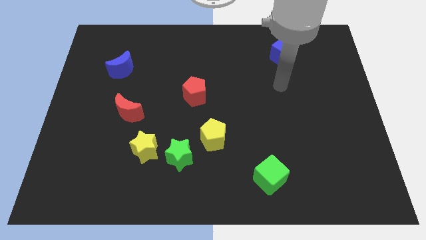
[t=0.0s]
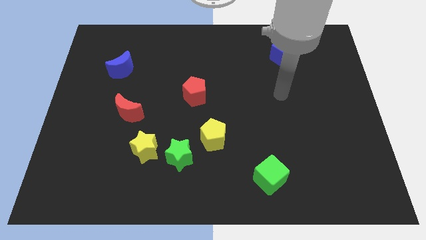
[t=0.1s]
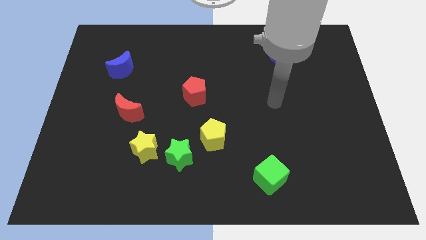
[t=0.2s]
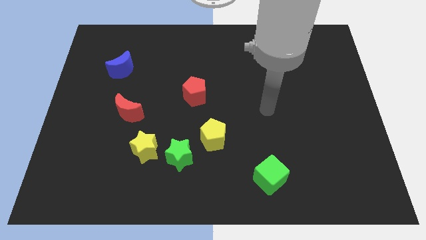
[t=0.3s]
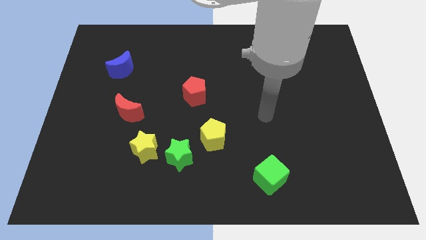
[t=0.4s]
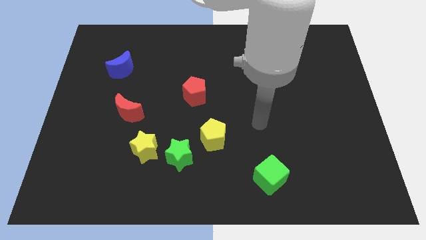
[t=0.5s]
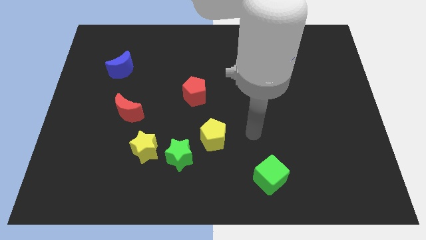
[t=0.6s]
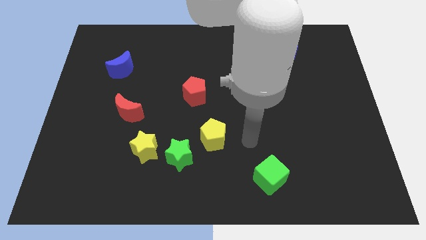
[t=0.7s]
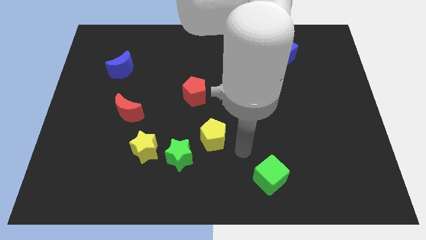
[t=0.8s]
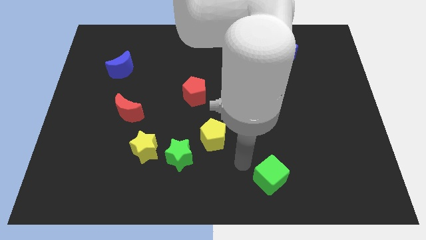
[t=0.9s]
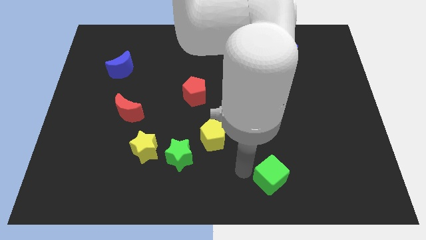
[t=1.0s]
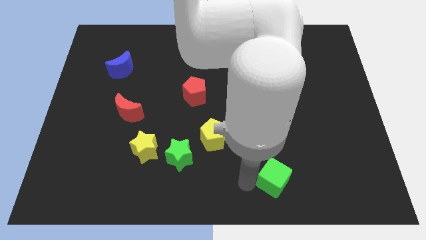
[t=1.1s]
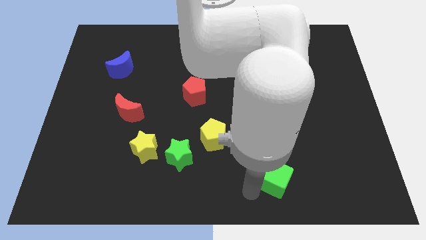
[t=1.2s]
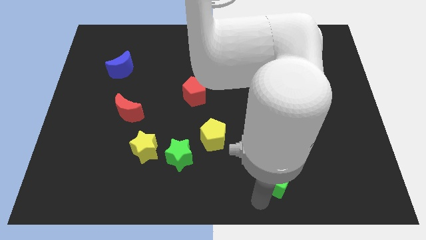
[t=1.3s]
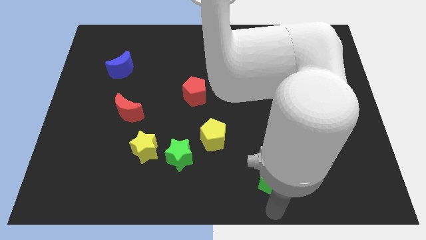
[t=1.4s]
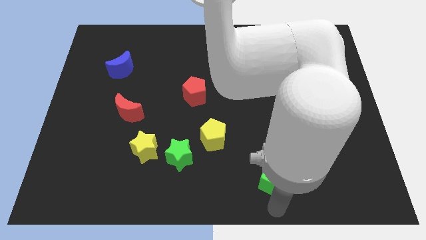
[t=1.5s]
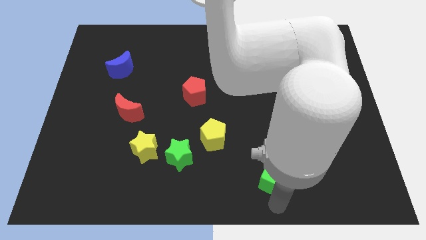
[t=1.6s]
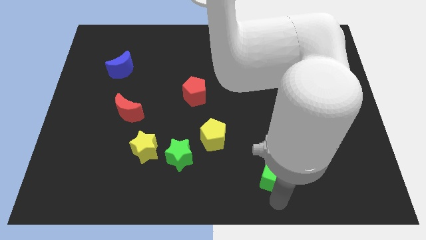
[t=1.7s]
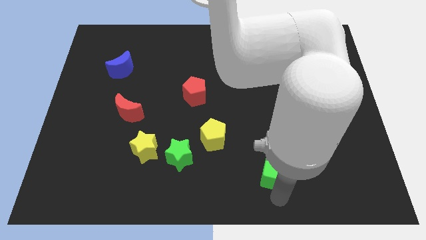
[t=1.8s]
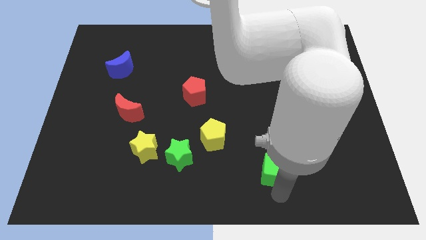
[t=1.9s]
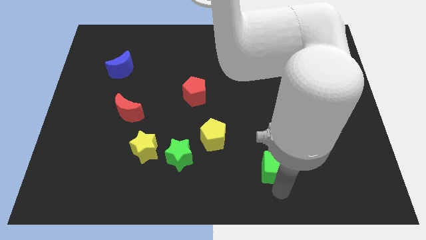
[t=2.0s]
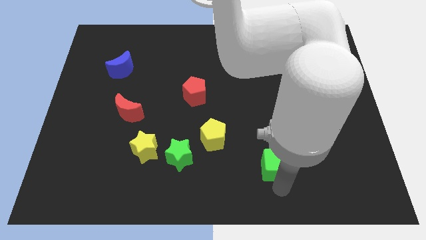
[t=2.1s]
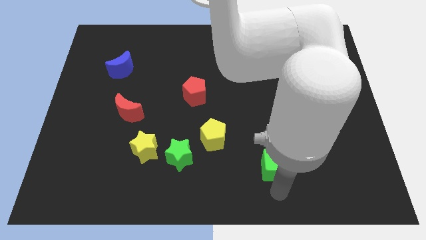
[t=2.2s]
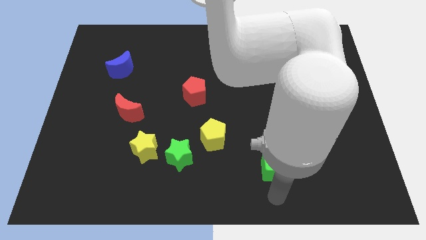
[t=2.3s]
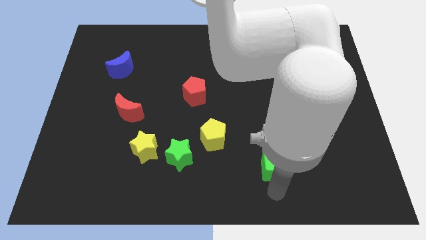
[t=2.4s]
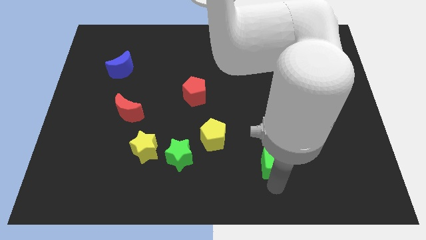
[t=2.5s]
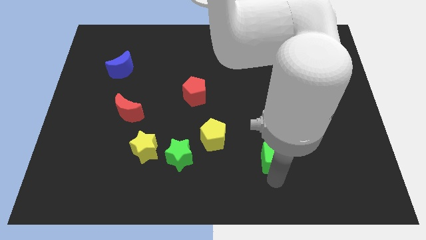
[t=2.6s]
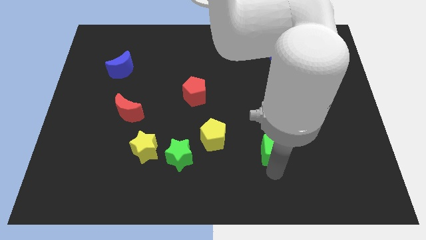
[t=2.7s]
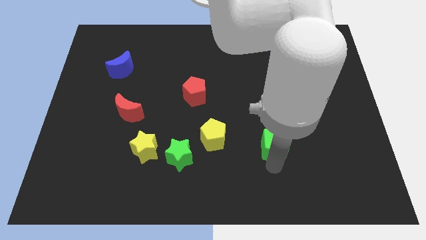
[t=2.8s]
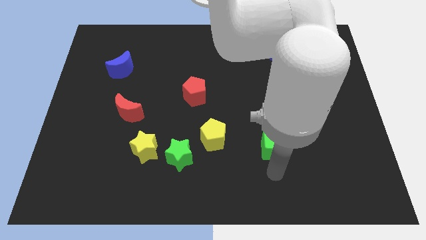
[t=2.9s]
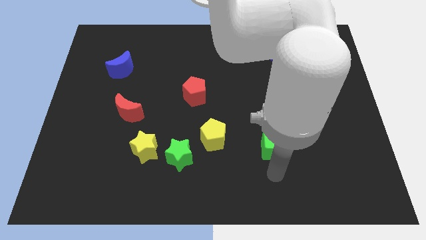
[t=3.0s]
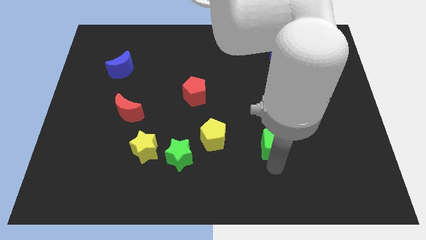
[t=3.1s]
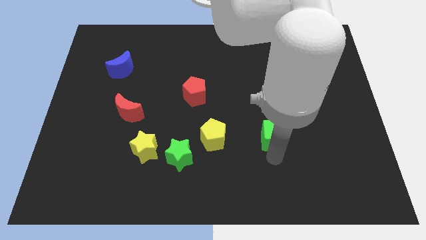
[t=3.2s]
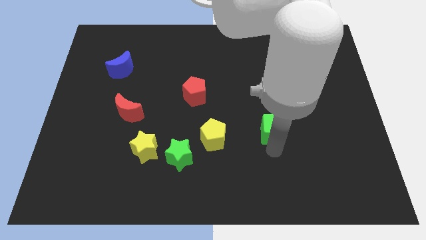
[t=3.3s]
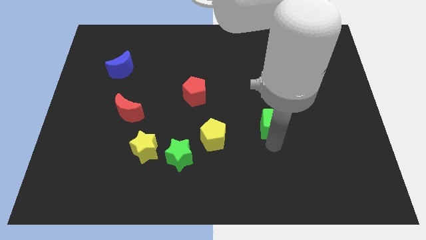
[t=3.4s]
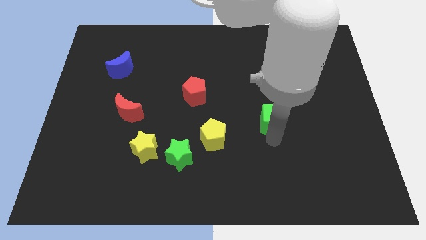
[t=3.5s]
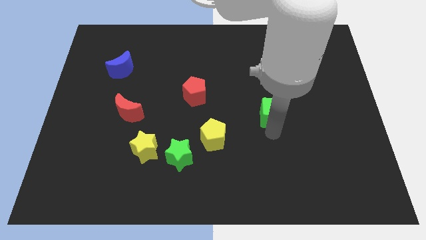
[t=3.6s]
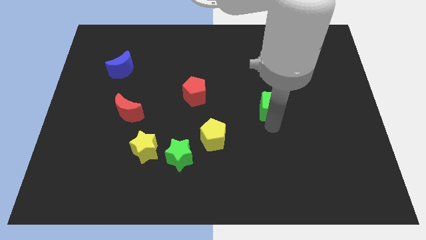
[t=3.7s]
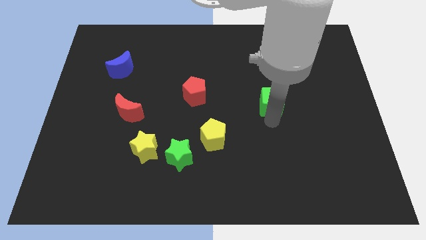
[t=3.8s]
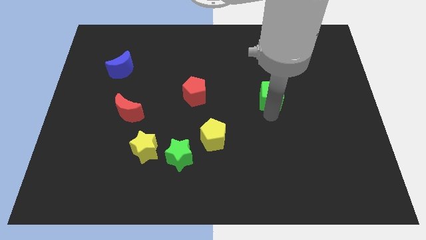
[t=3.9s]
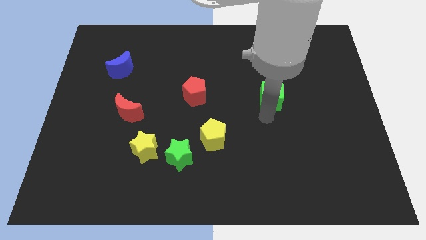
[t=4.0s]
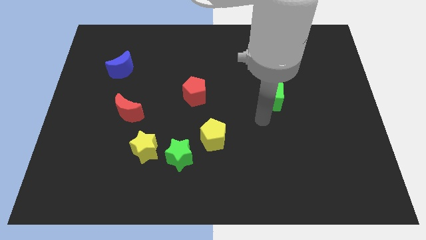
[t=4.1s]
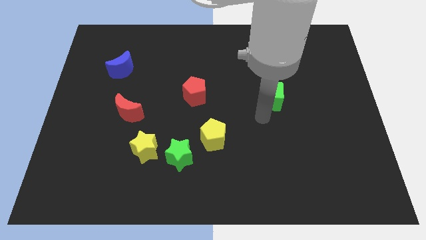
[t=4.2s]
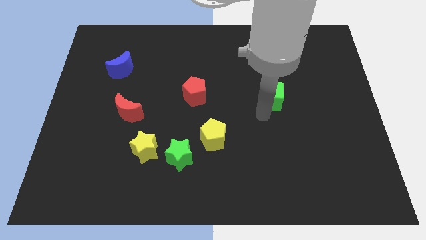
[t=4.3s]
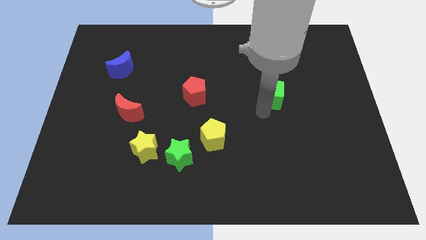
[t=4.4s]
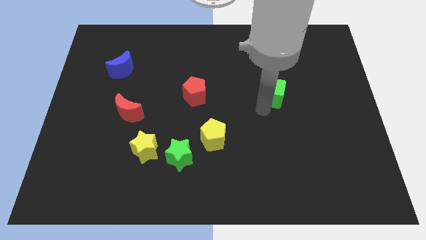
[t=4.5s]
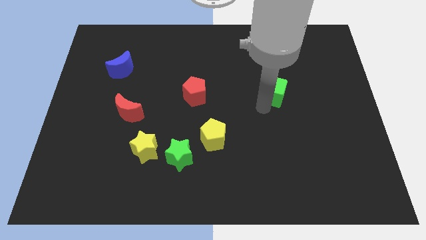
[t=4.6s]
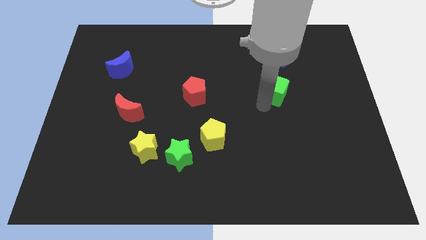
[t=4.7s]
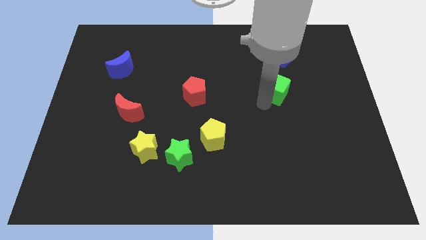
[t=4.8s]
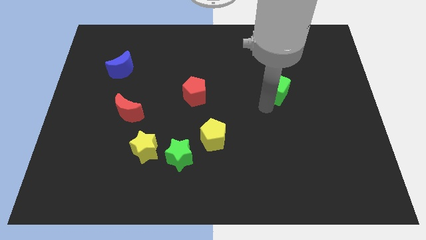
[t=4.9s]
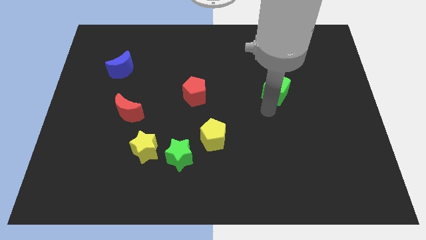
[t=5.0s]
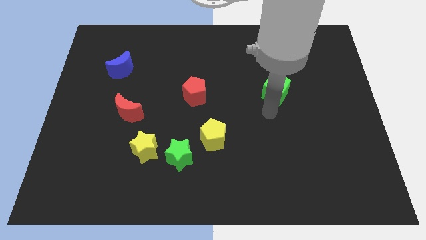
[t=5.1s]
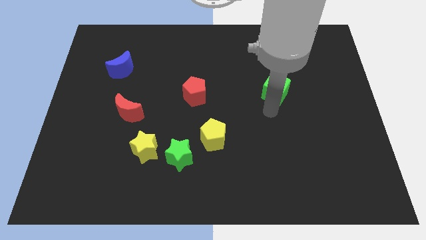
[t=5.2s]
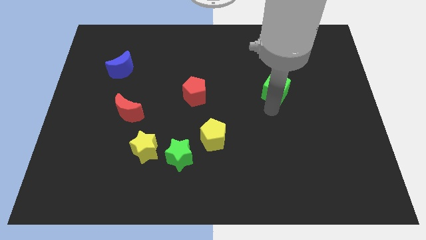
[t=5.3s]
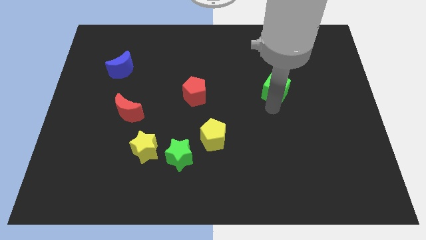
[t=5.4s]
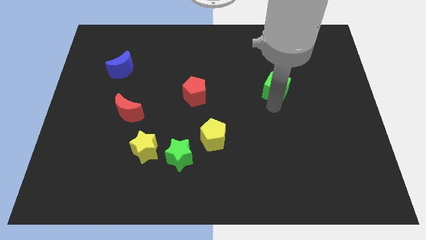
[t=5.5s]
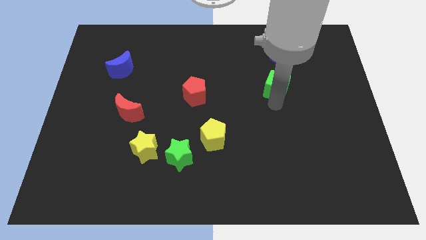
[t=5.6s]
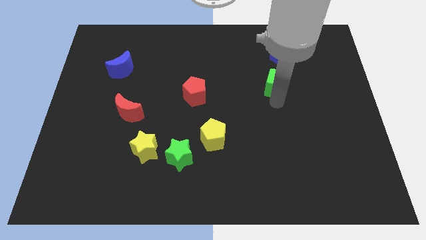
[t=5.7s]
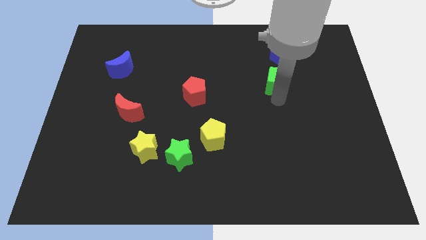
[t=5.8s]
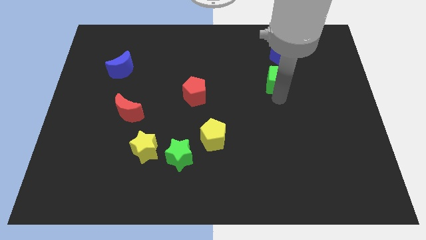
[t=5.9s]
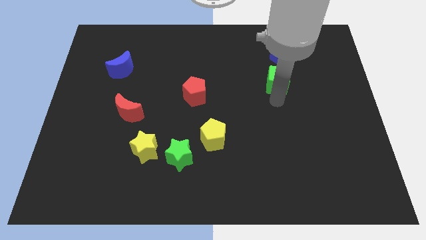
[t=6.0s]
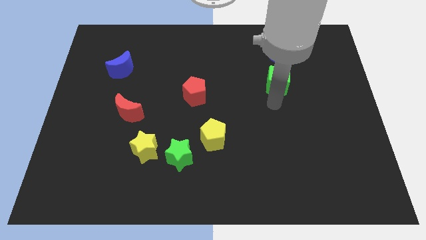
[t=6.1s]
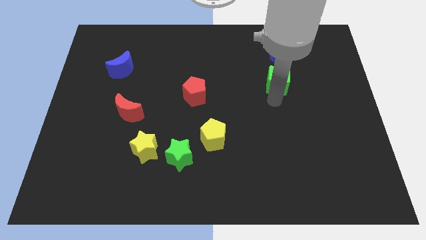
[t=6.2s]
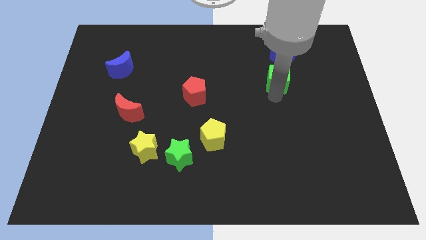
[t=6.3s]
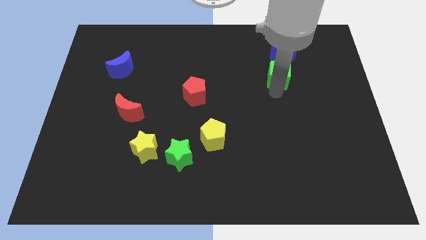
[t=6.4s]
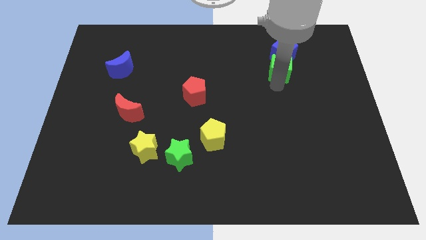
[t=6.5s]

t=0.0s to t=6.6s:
move the green cube close to the blue cube

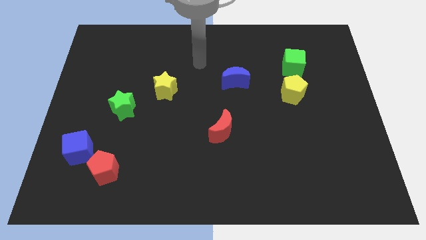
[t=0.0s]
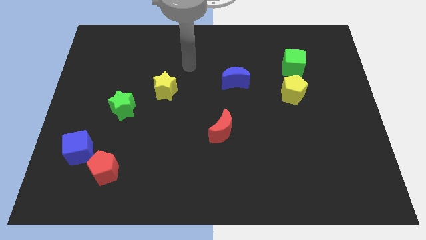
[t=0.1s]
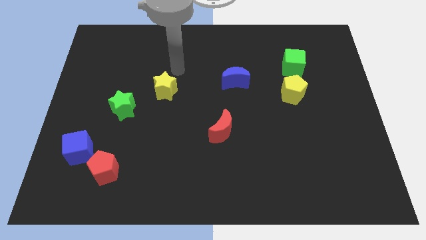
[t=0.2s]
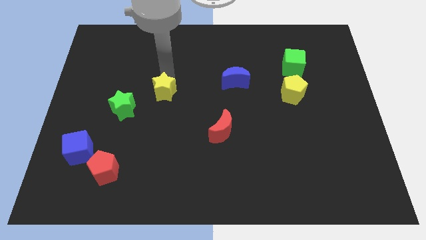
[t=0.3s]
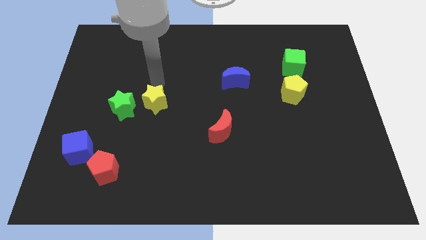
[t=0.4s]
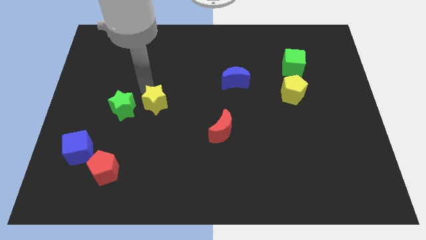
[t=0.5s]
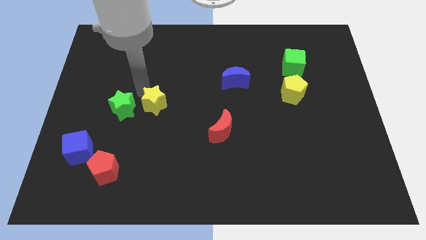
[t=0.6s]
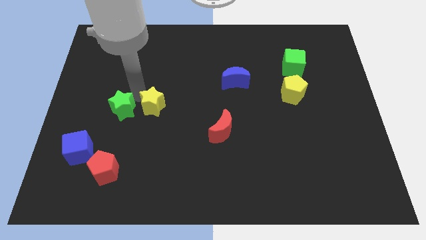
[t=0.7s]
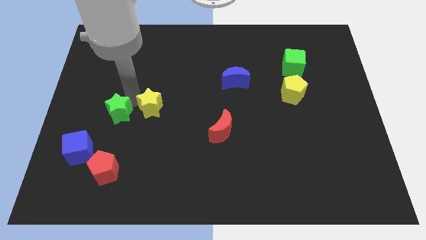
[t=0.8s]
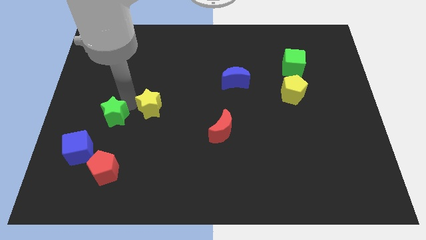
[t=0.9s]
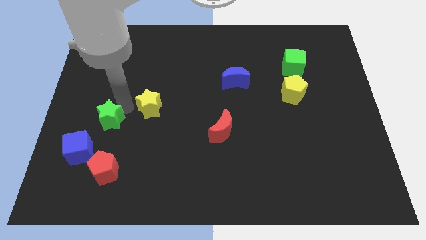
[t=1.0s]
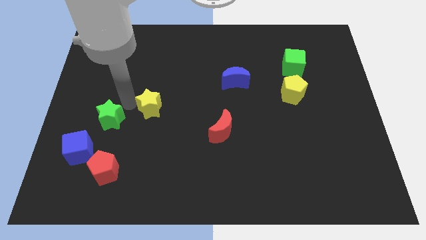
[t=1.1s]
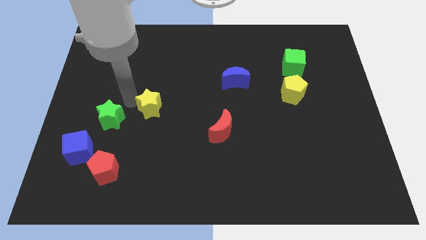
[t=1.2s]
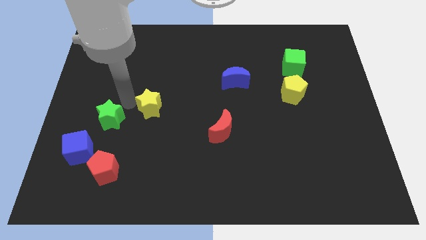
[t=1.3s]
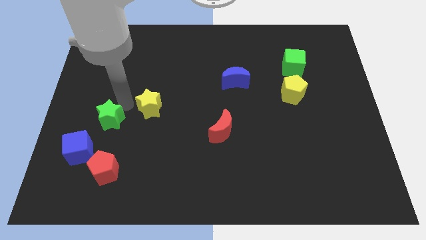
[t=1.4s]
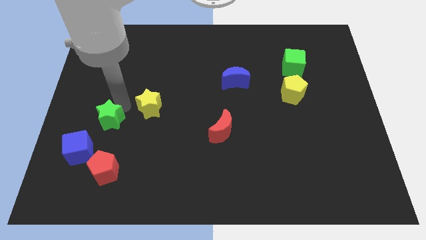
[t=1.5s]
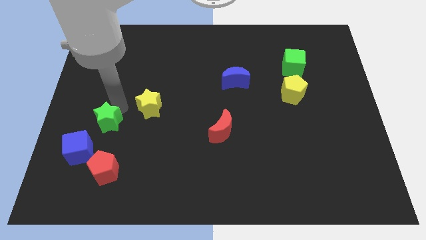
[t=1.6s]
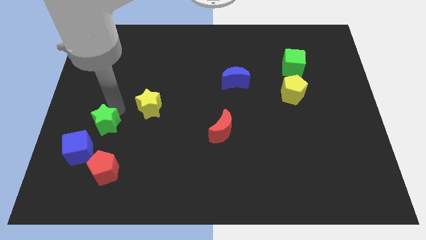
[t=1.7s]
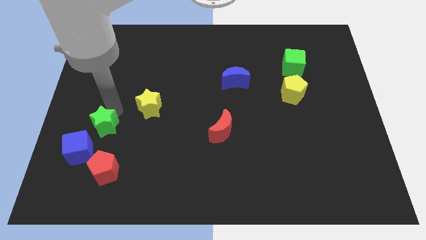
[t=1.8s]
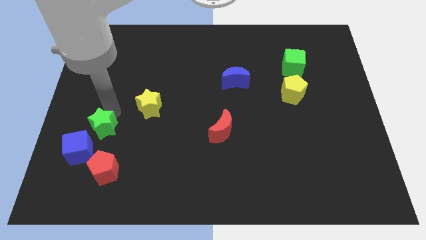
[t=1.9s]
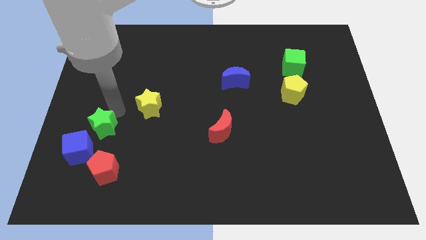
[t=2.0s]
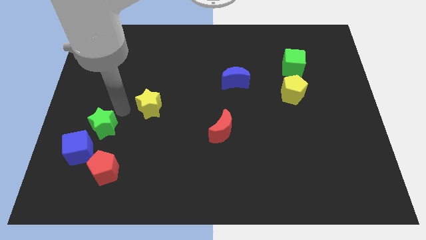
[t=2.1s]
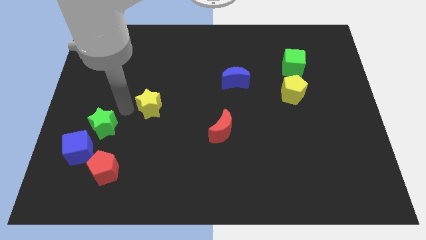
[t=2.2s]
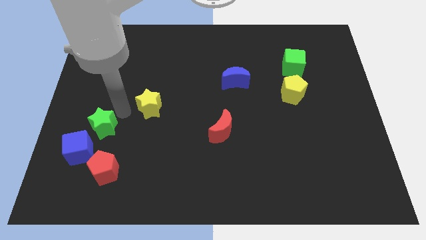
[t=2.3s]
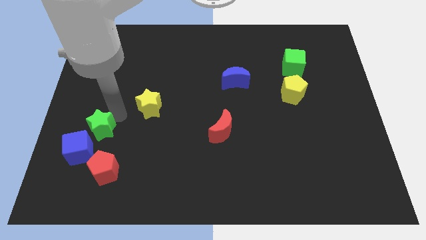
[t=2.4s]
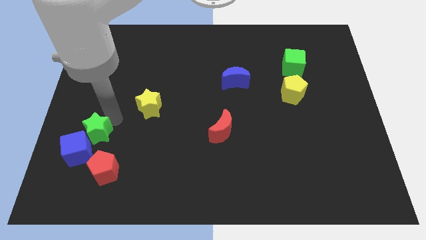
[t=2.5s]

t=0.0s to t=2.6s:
slide the green star to the blue cube
